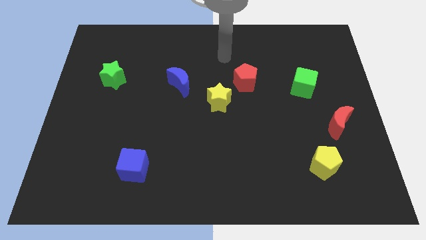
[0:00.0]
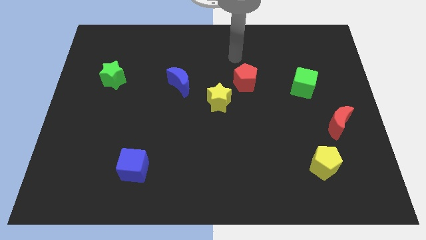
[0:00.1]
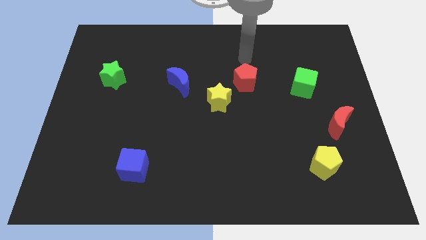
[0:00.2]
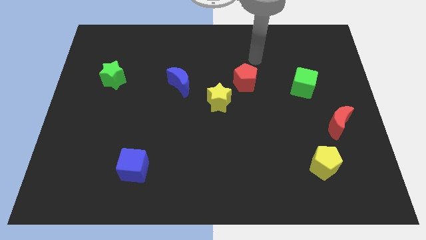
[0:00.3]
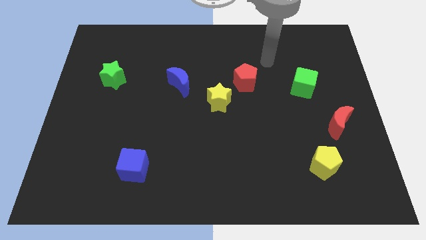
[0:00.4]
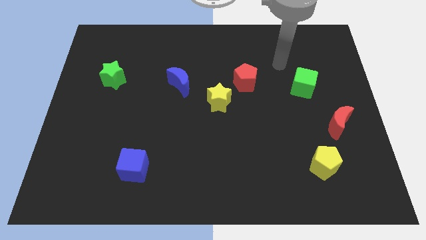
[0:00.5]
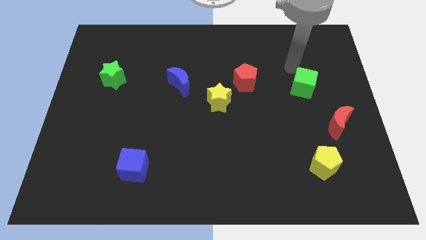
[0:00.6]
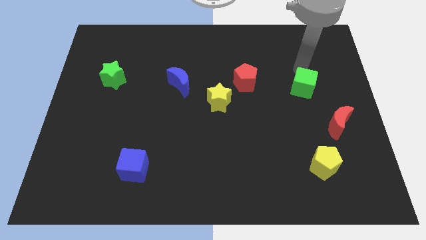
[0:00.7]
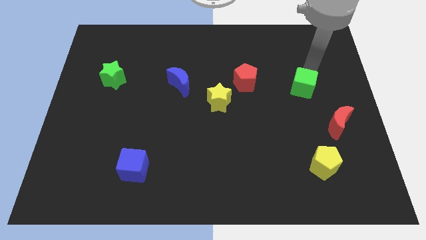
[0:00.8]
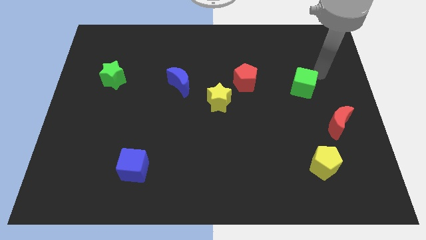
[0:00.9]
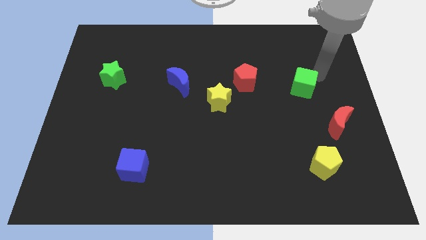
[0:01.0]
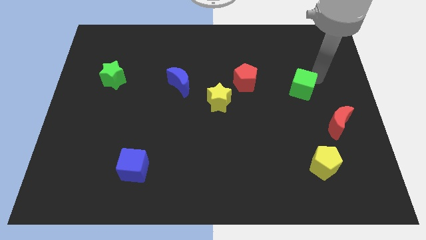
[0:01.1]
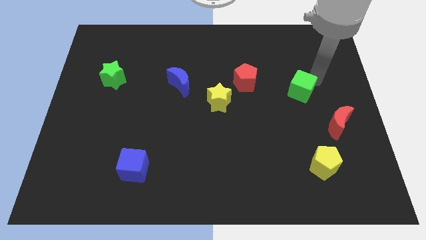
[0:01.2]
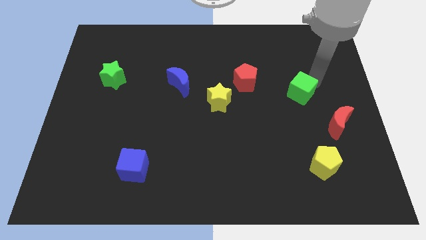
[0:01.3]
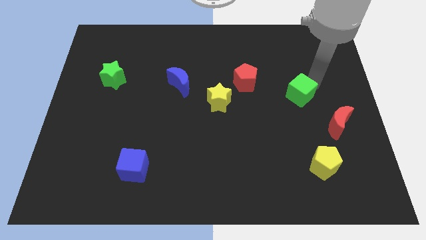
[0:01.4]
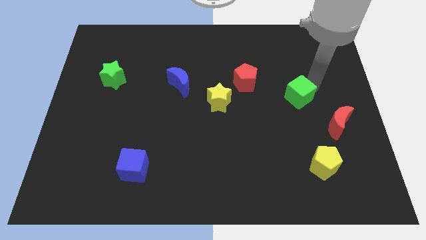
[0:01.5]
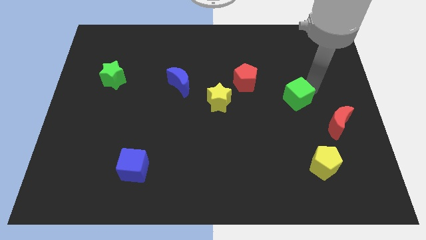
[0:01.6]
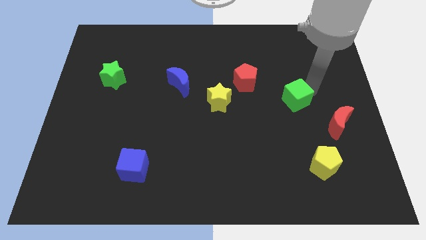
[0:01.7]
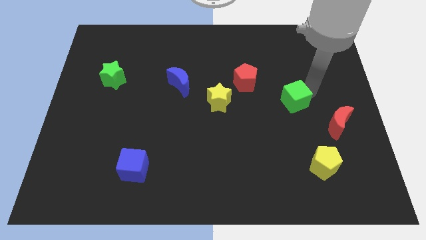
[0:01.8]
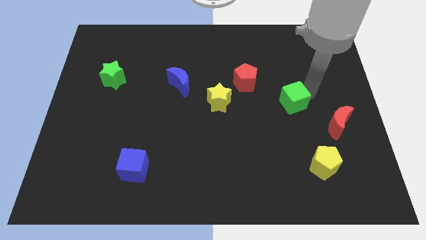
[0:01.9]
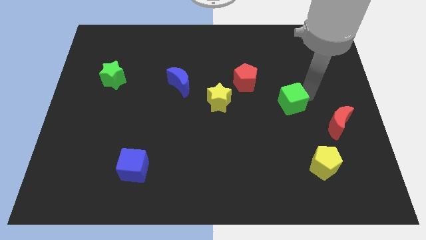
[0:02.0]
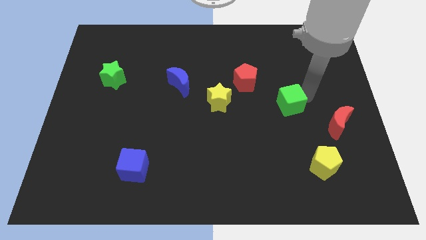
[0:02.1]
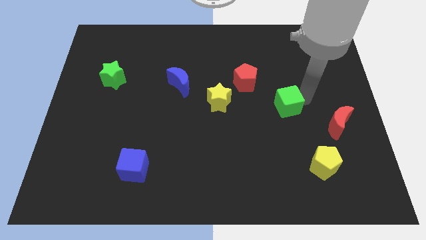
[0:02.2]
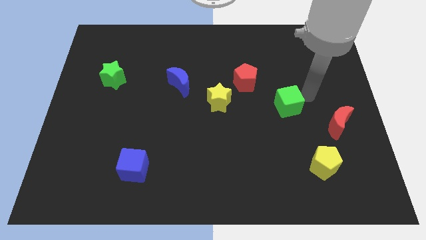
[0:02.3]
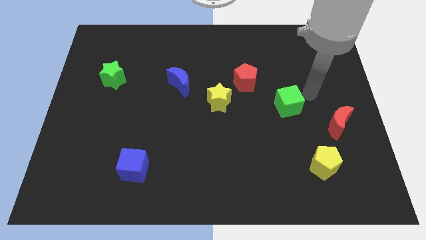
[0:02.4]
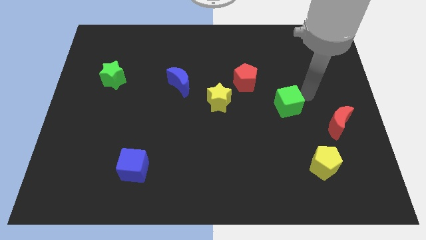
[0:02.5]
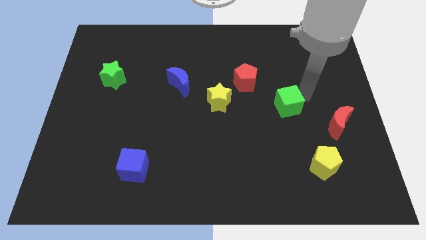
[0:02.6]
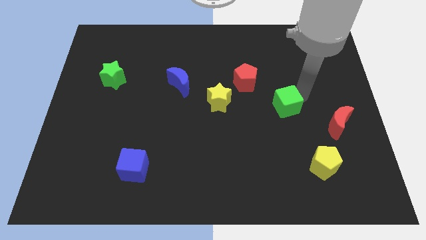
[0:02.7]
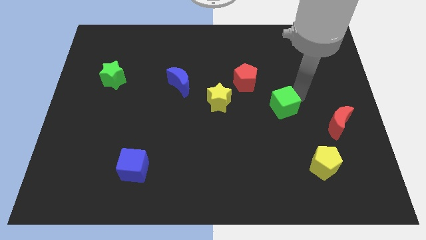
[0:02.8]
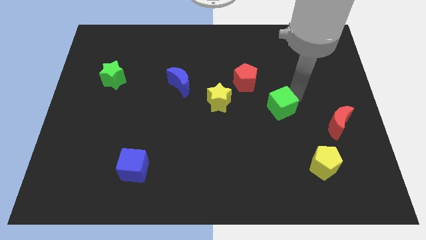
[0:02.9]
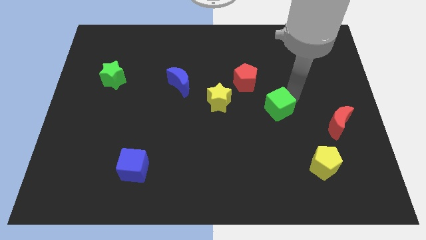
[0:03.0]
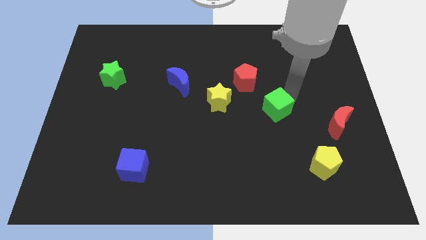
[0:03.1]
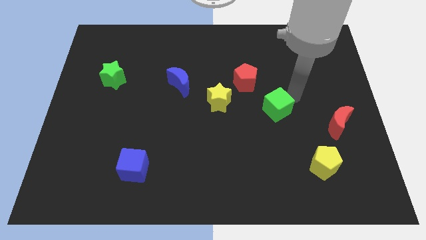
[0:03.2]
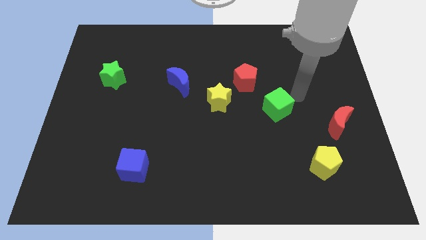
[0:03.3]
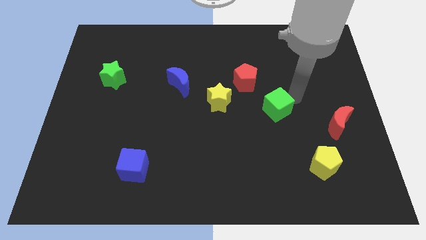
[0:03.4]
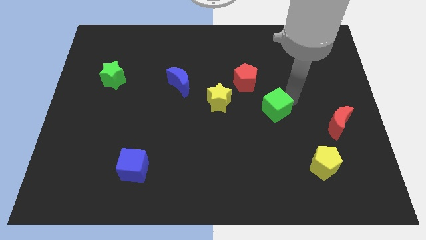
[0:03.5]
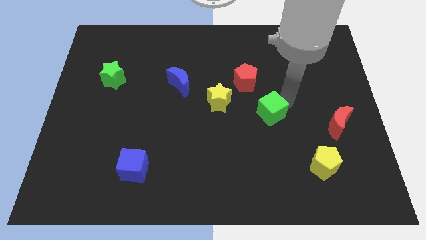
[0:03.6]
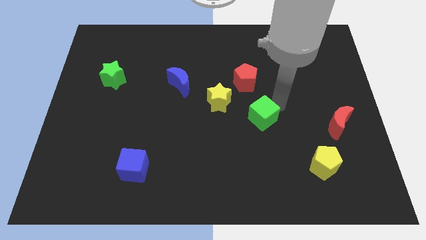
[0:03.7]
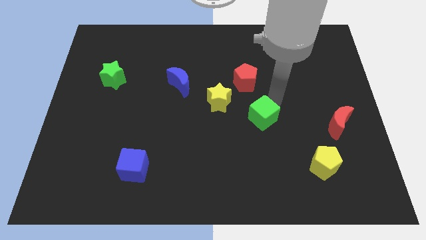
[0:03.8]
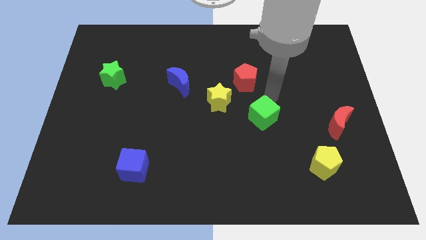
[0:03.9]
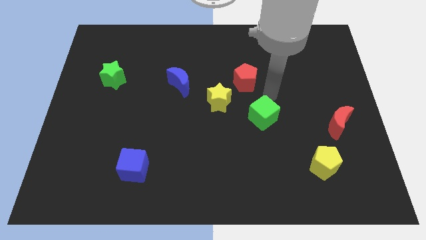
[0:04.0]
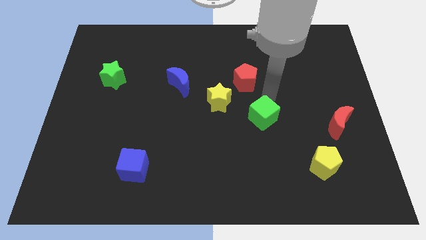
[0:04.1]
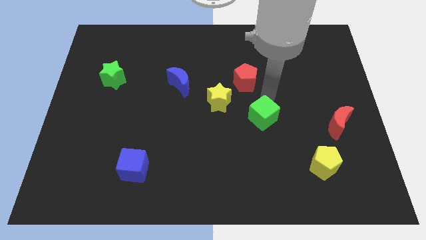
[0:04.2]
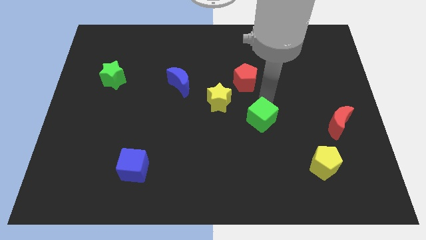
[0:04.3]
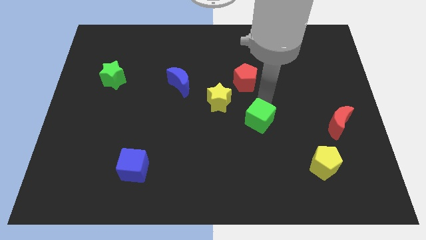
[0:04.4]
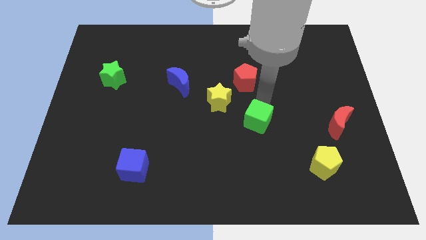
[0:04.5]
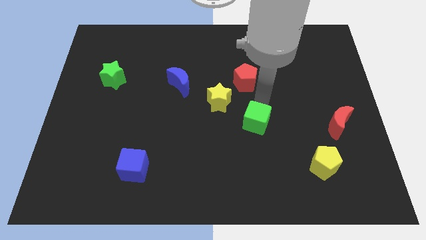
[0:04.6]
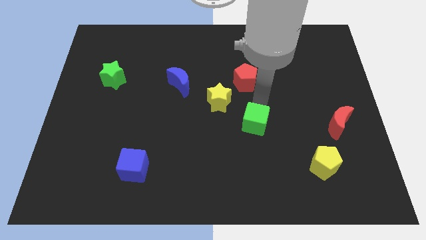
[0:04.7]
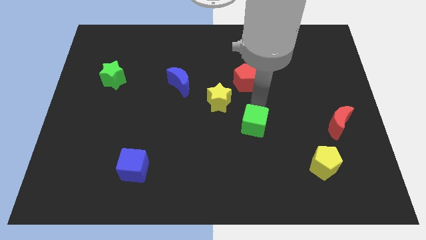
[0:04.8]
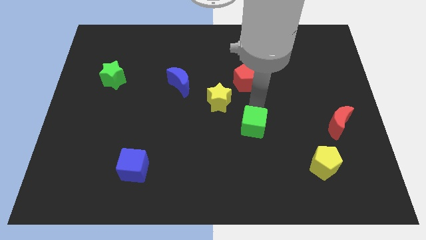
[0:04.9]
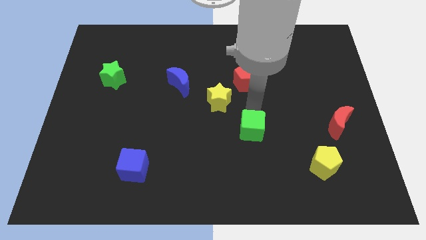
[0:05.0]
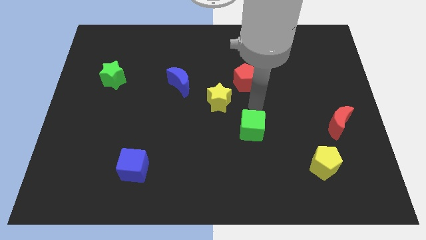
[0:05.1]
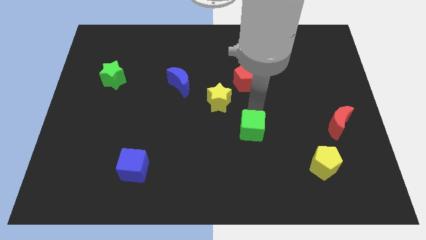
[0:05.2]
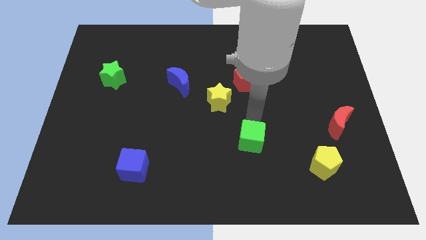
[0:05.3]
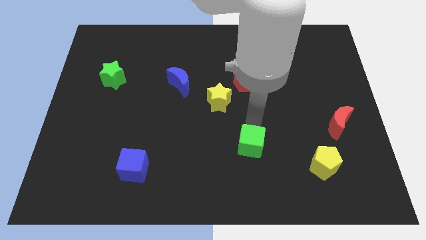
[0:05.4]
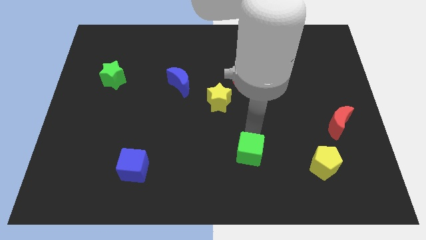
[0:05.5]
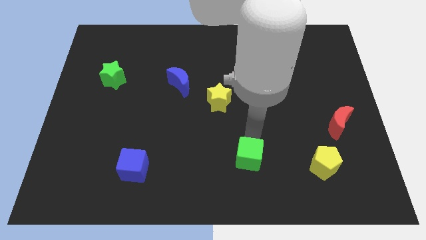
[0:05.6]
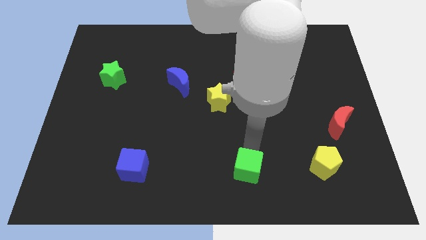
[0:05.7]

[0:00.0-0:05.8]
push the green cube to the bottom side

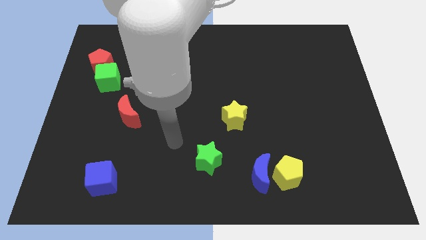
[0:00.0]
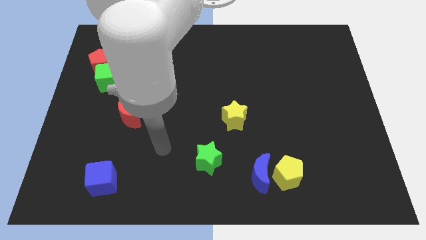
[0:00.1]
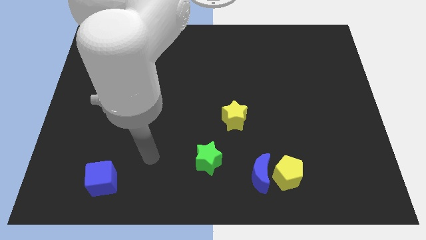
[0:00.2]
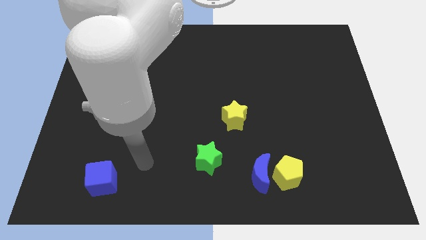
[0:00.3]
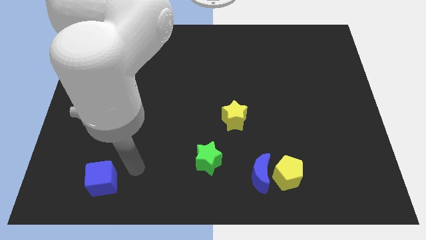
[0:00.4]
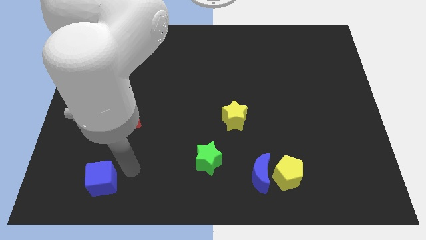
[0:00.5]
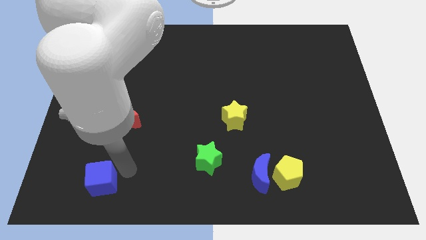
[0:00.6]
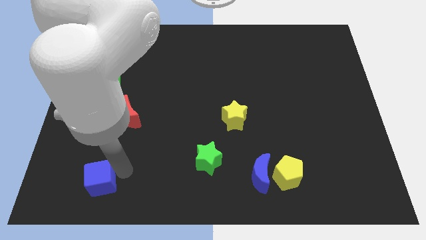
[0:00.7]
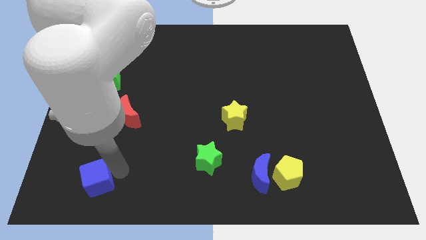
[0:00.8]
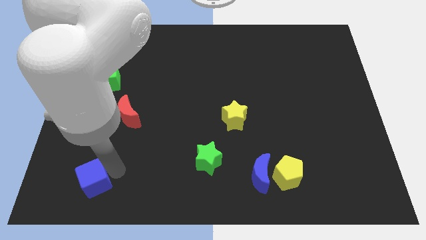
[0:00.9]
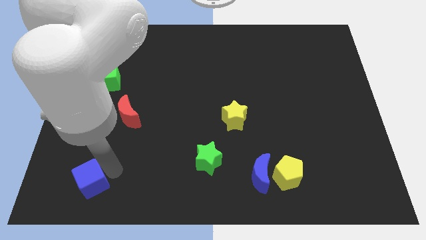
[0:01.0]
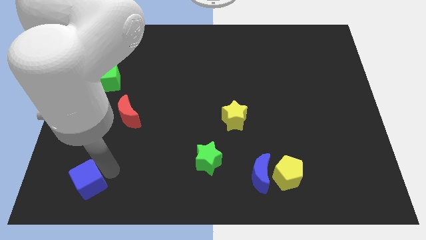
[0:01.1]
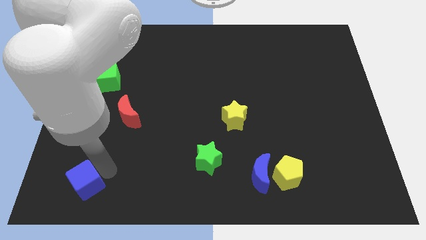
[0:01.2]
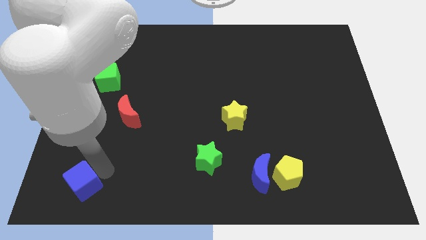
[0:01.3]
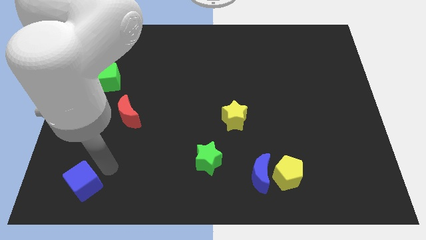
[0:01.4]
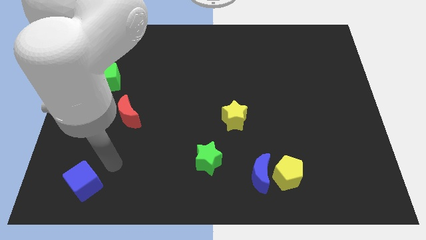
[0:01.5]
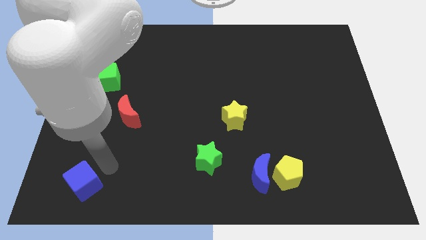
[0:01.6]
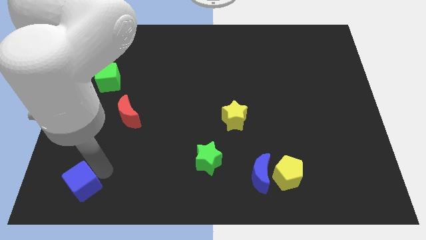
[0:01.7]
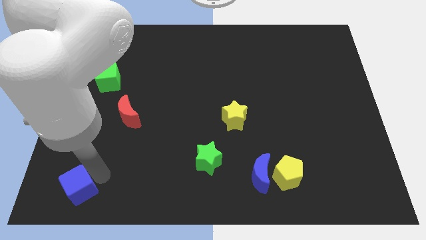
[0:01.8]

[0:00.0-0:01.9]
put the blue cube to the bottom left
